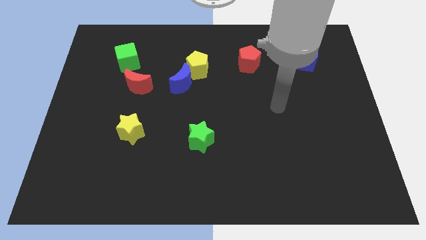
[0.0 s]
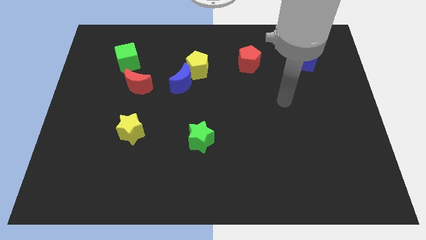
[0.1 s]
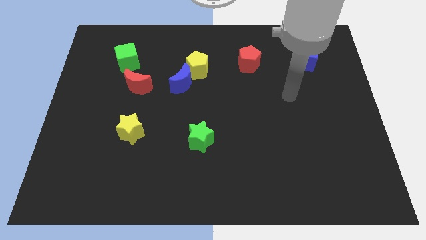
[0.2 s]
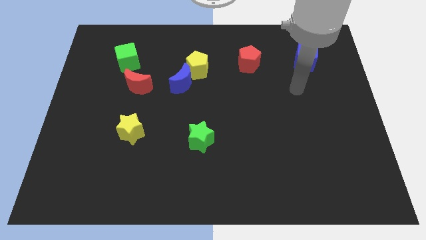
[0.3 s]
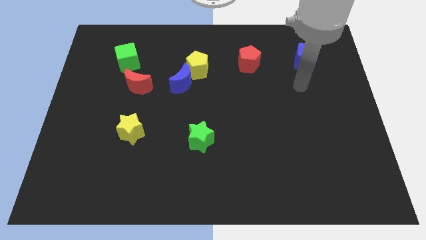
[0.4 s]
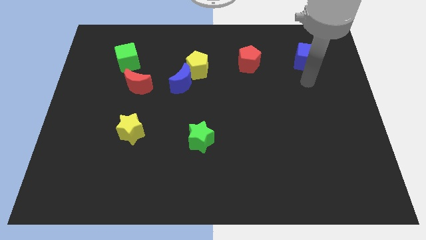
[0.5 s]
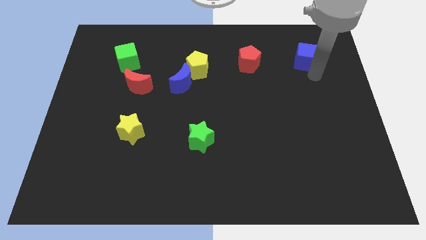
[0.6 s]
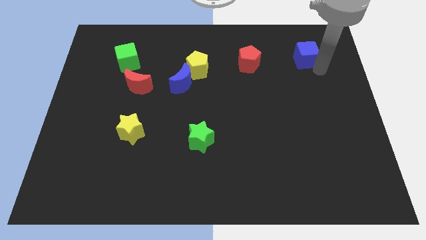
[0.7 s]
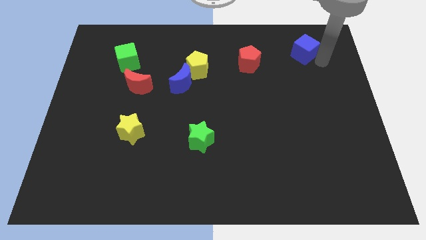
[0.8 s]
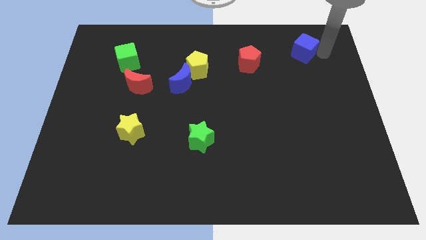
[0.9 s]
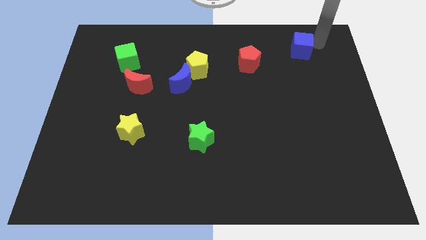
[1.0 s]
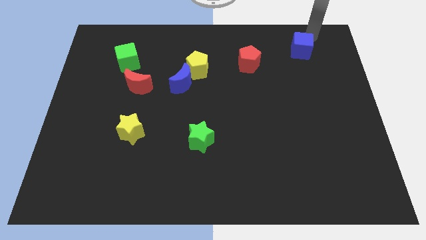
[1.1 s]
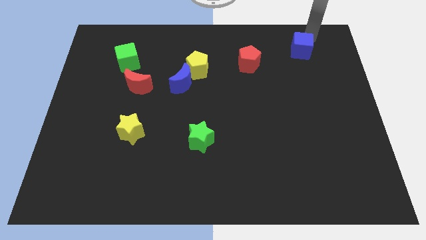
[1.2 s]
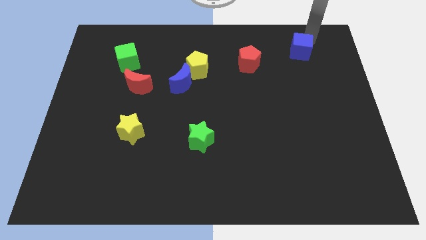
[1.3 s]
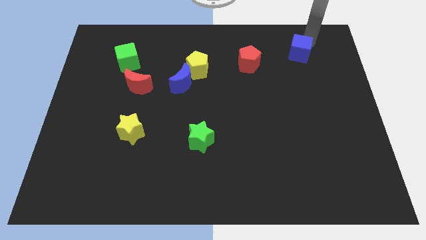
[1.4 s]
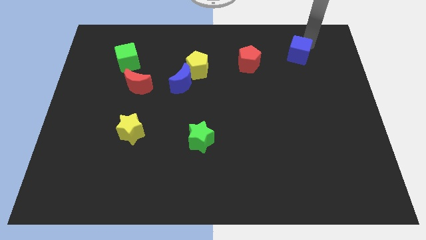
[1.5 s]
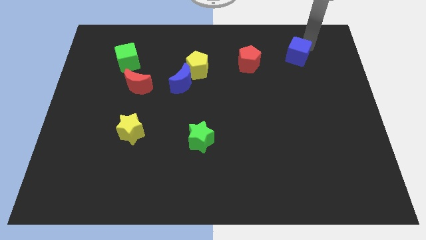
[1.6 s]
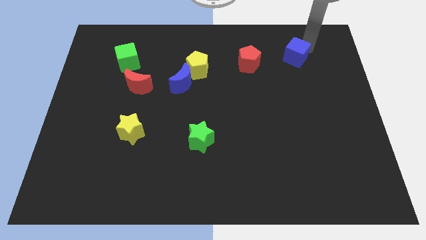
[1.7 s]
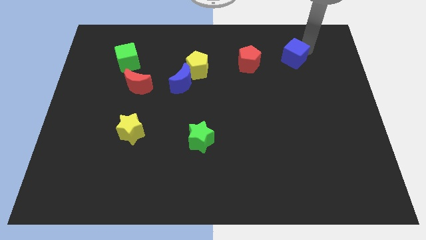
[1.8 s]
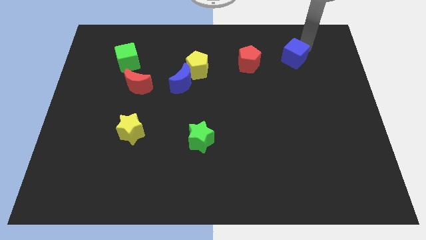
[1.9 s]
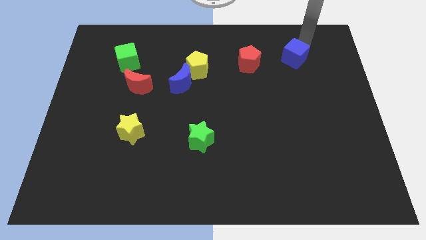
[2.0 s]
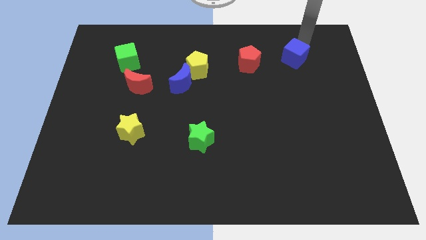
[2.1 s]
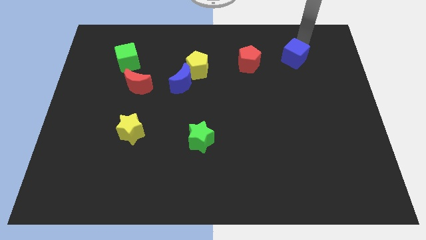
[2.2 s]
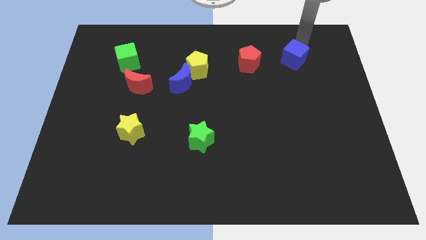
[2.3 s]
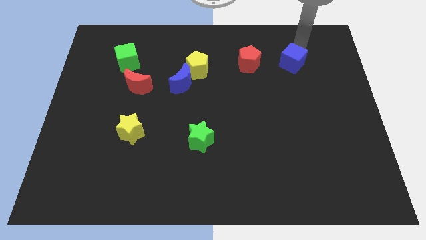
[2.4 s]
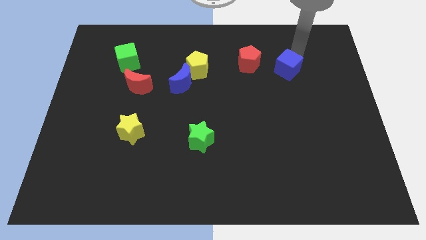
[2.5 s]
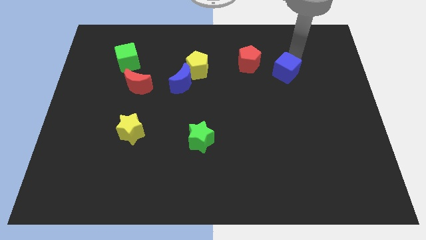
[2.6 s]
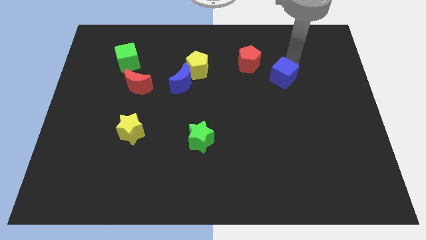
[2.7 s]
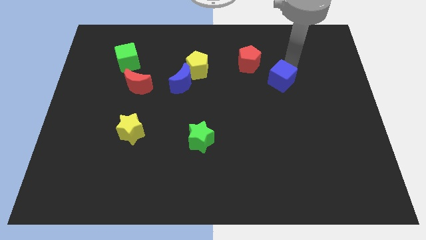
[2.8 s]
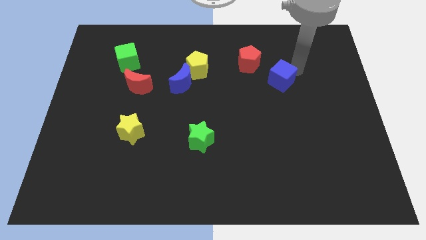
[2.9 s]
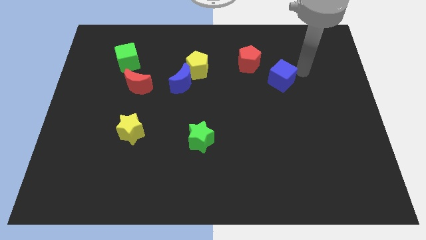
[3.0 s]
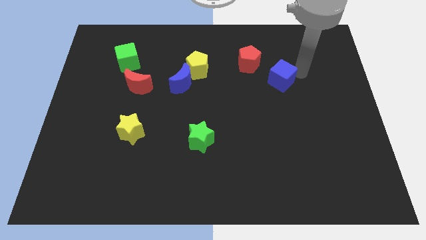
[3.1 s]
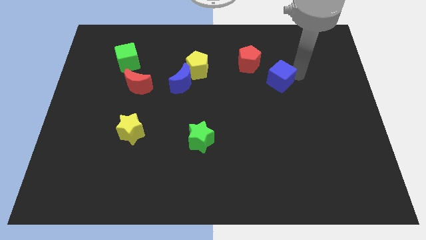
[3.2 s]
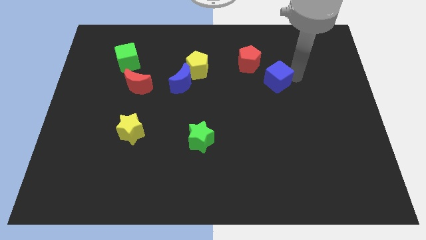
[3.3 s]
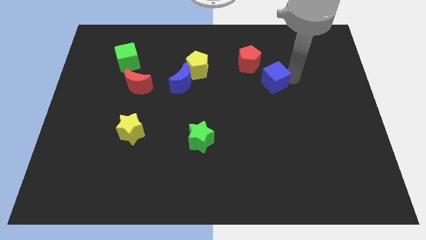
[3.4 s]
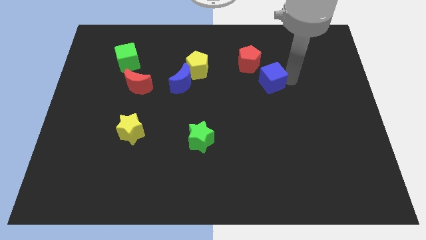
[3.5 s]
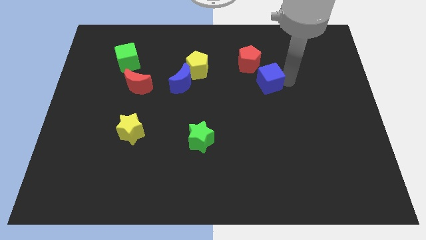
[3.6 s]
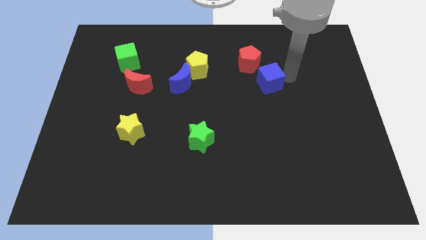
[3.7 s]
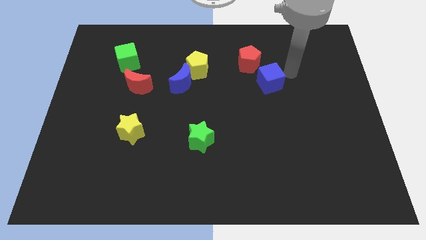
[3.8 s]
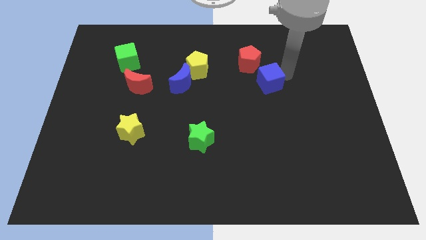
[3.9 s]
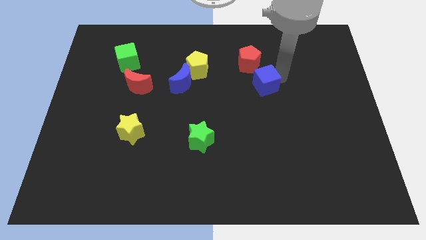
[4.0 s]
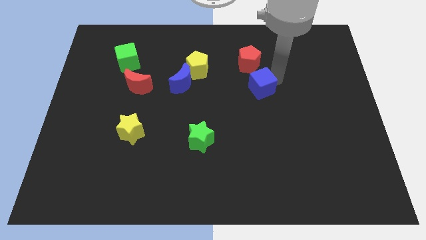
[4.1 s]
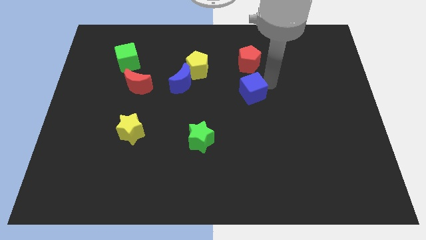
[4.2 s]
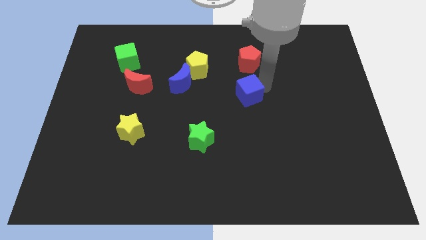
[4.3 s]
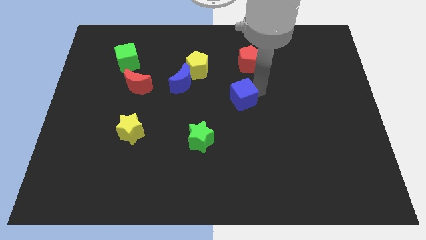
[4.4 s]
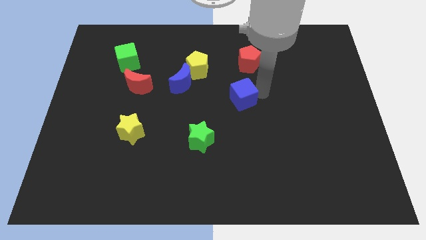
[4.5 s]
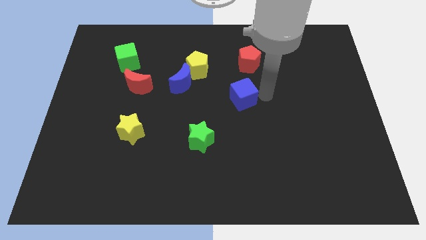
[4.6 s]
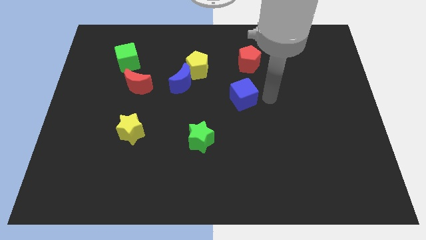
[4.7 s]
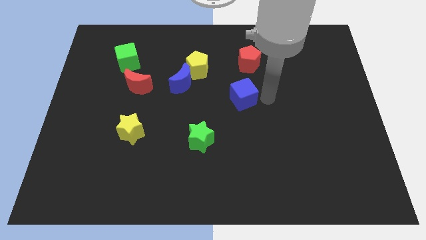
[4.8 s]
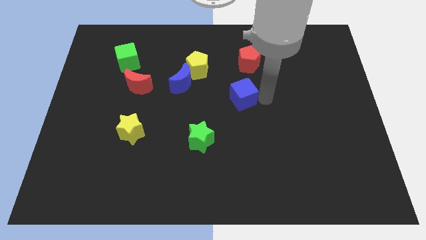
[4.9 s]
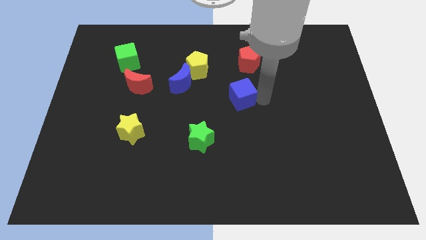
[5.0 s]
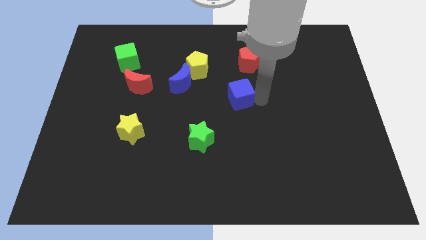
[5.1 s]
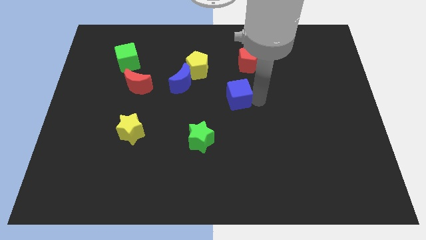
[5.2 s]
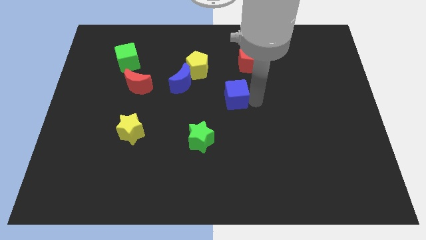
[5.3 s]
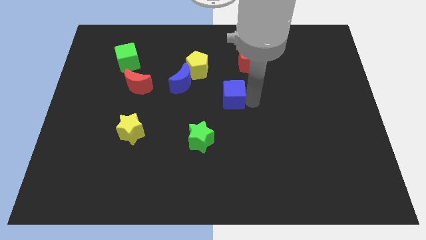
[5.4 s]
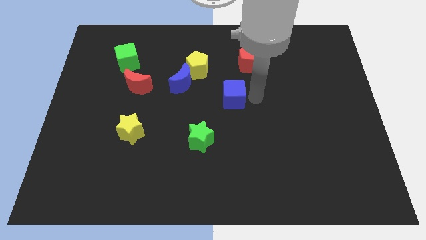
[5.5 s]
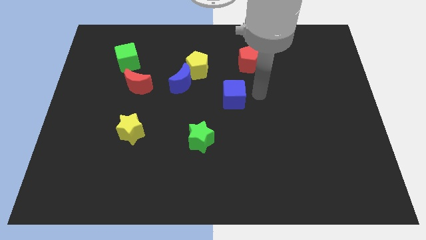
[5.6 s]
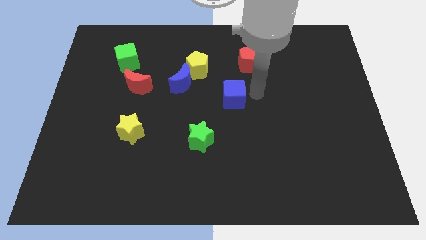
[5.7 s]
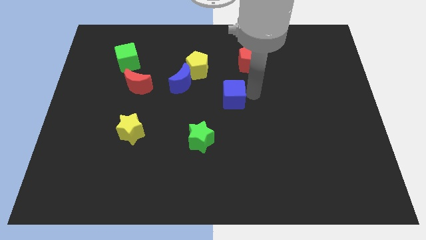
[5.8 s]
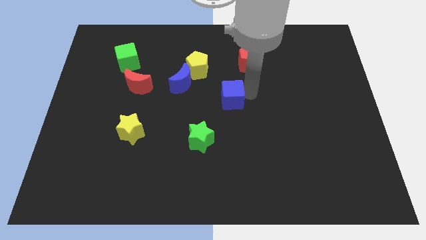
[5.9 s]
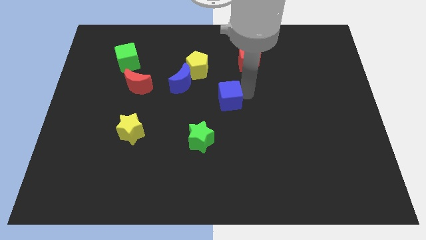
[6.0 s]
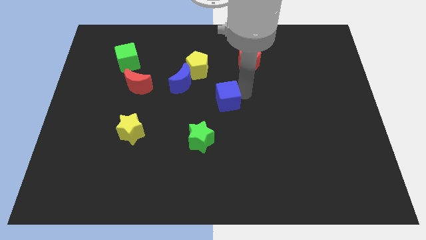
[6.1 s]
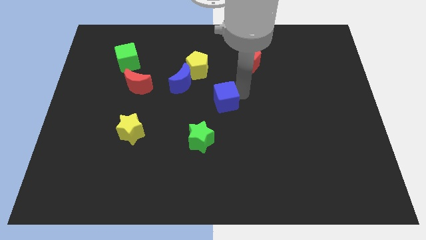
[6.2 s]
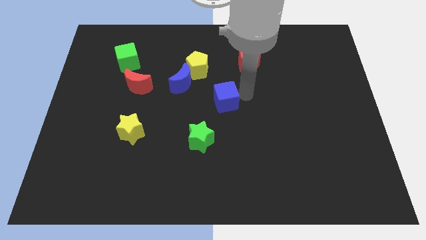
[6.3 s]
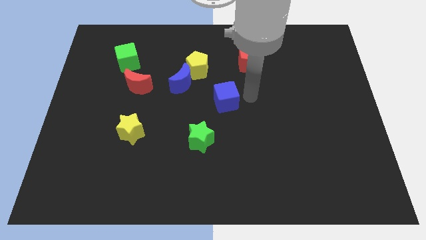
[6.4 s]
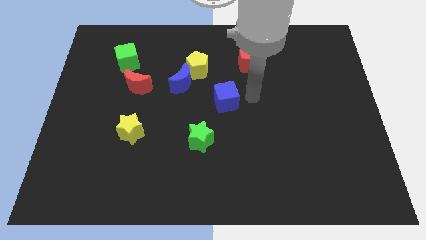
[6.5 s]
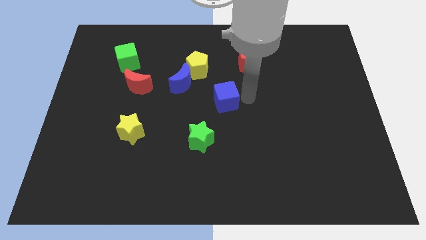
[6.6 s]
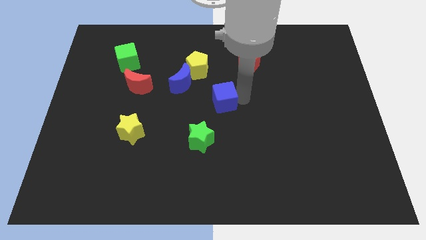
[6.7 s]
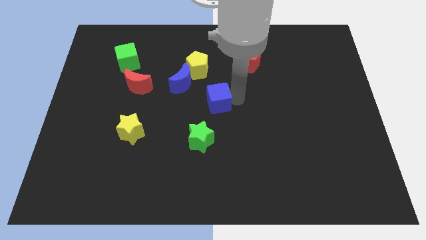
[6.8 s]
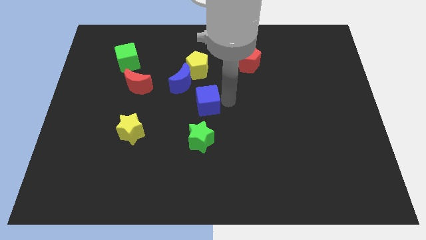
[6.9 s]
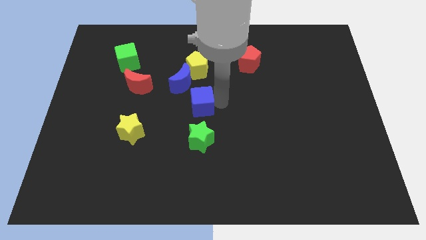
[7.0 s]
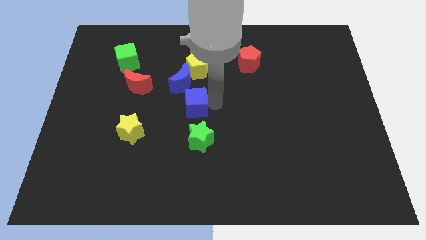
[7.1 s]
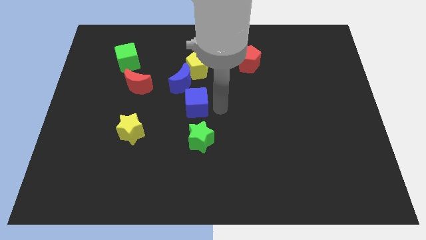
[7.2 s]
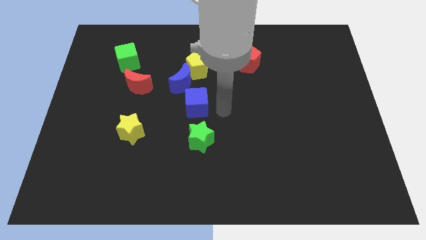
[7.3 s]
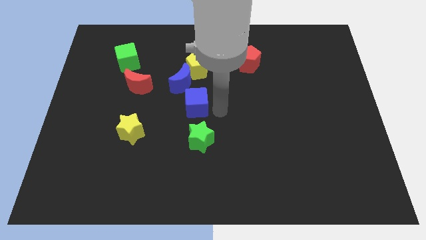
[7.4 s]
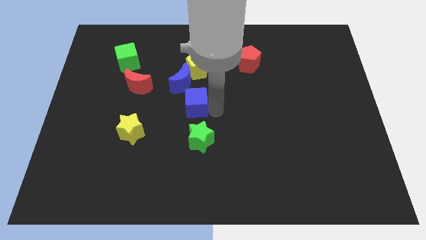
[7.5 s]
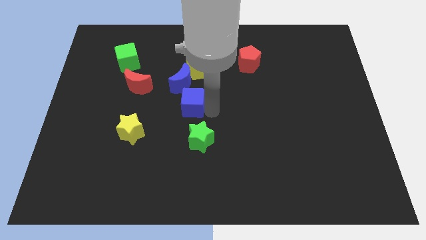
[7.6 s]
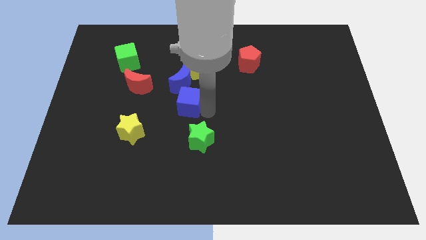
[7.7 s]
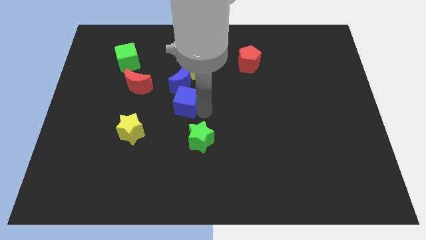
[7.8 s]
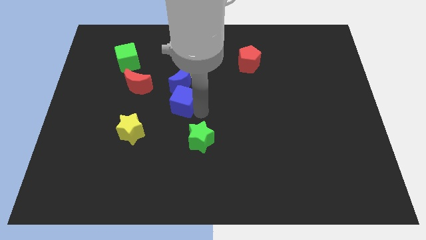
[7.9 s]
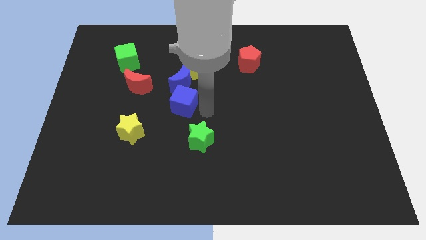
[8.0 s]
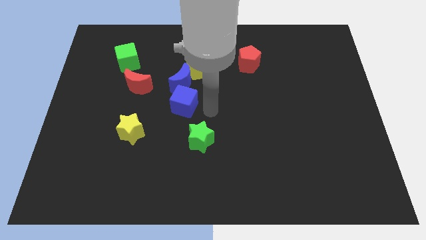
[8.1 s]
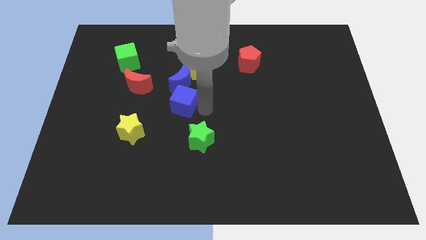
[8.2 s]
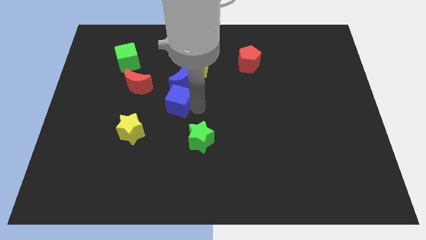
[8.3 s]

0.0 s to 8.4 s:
move the blue cube diagonally down and to the left of the blue moon
